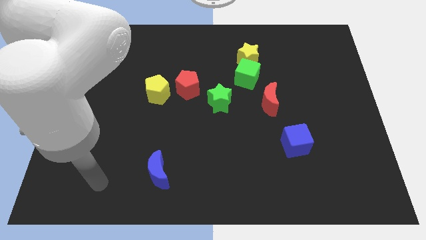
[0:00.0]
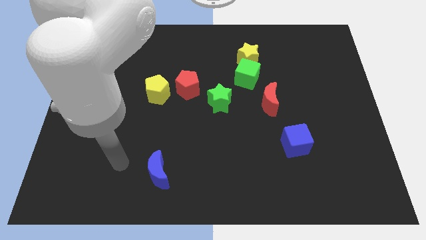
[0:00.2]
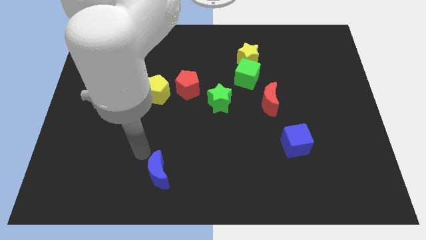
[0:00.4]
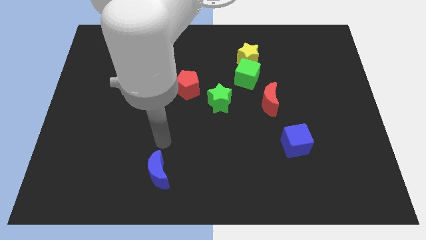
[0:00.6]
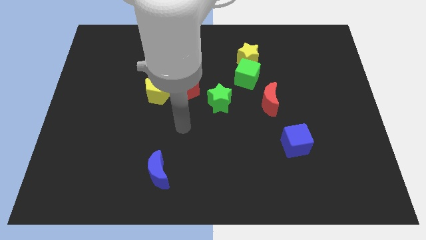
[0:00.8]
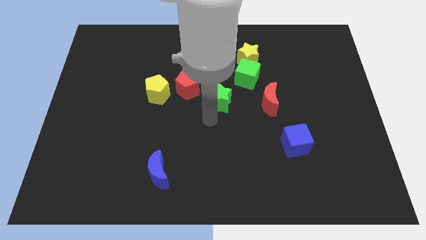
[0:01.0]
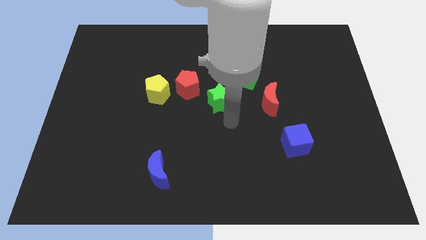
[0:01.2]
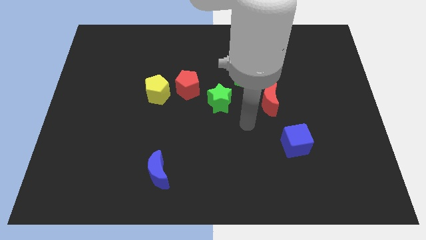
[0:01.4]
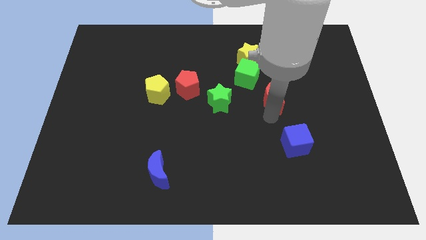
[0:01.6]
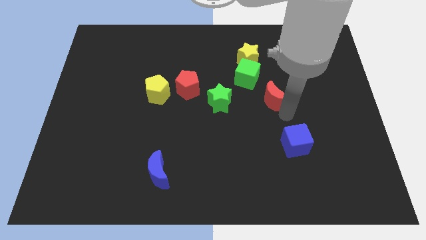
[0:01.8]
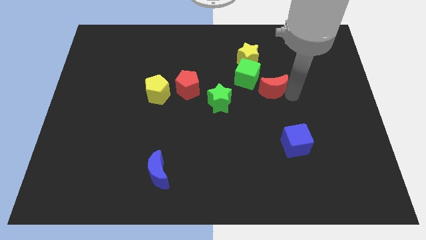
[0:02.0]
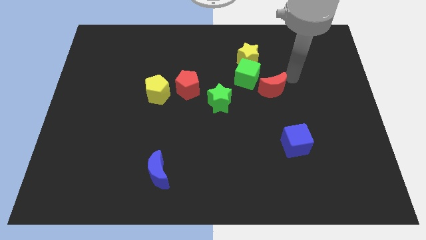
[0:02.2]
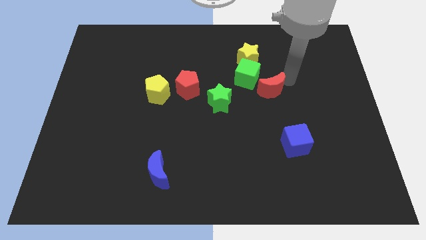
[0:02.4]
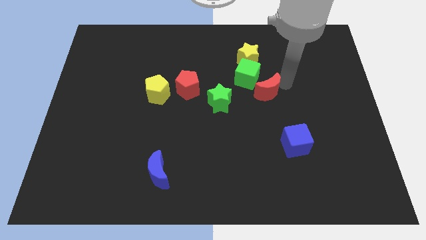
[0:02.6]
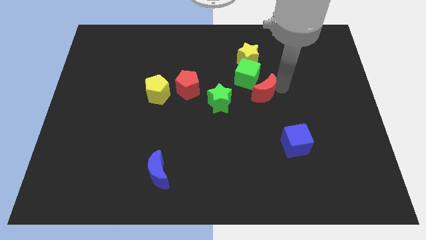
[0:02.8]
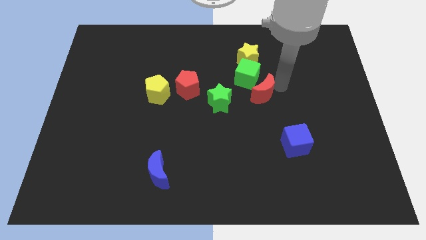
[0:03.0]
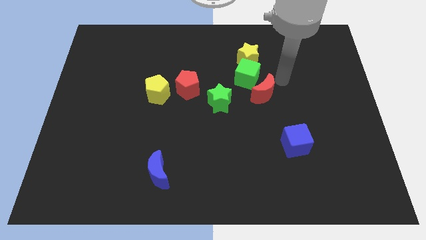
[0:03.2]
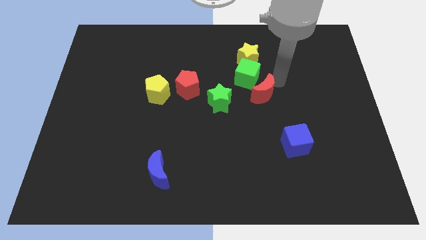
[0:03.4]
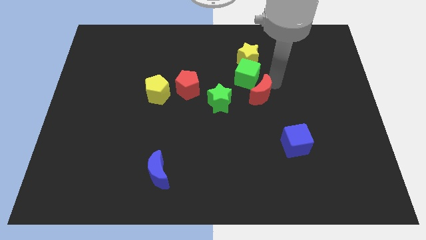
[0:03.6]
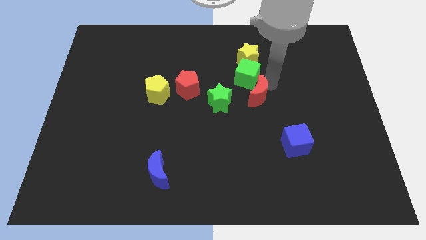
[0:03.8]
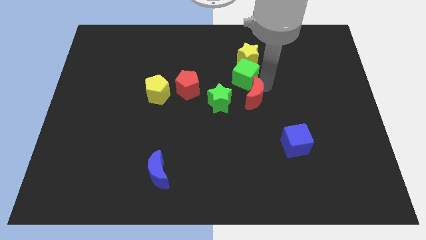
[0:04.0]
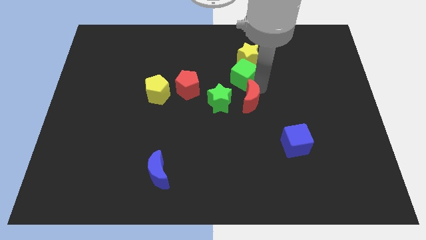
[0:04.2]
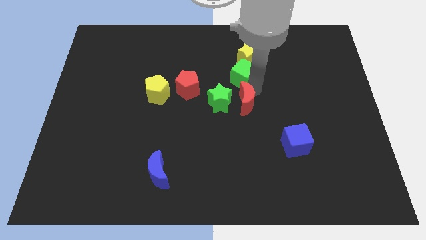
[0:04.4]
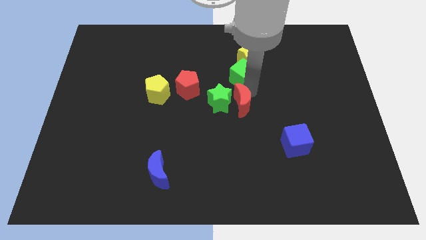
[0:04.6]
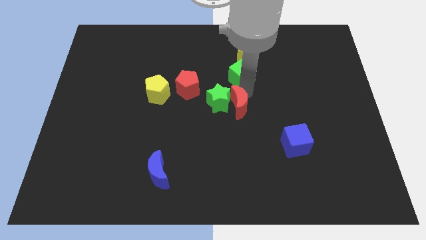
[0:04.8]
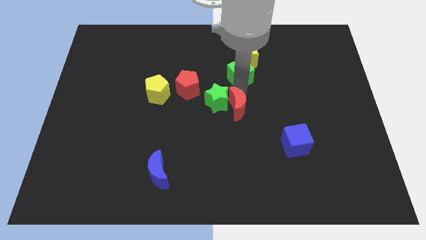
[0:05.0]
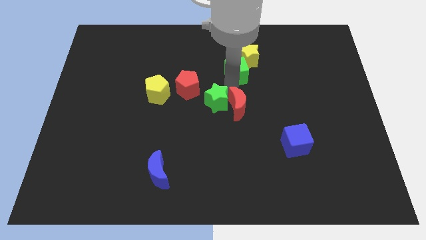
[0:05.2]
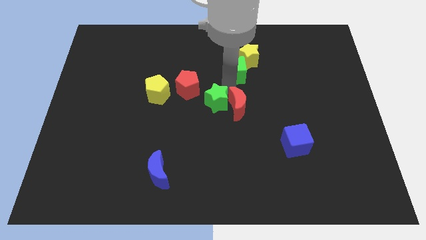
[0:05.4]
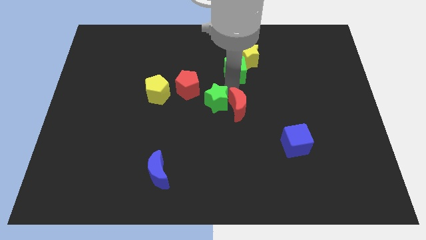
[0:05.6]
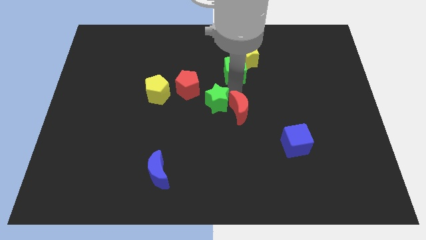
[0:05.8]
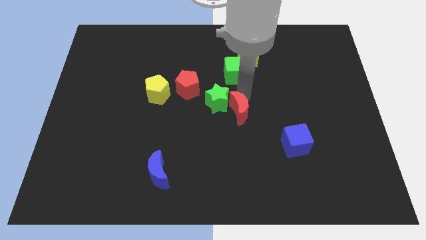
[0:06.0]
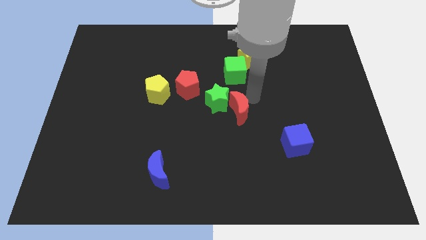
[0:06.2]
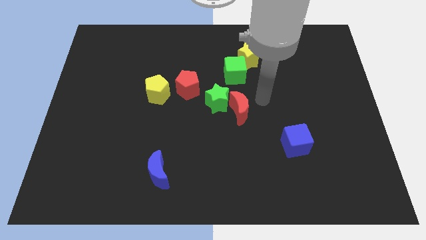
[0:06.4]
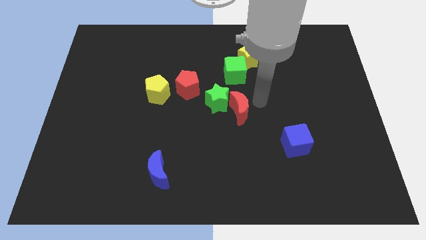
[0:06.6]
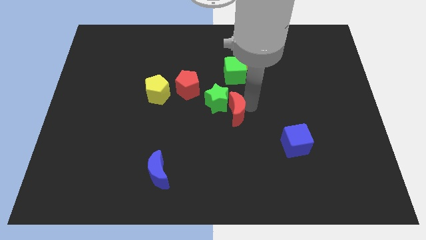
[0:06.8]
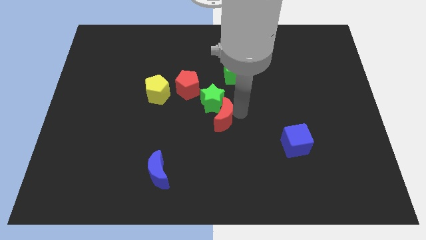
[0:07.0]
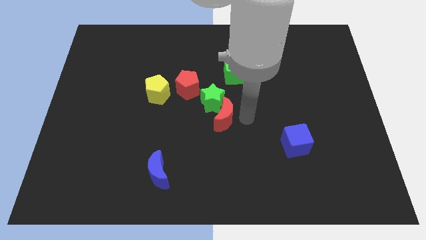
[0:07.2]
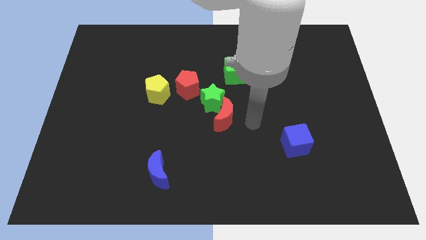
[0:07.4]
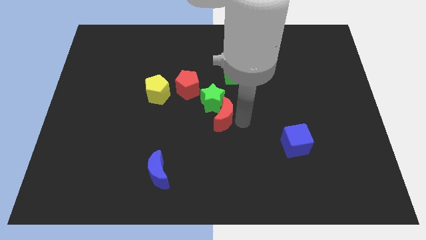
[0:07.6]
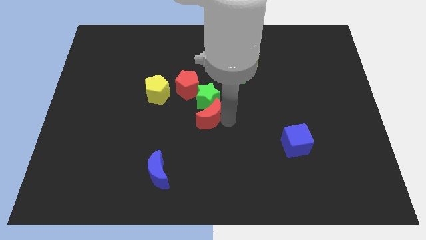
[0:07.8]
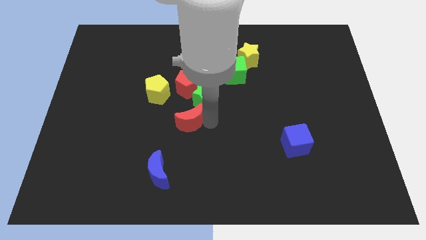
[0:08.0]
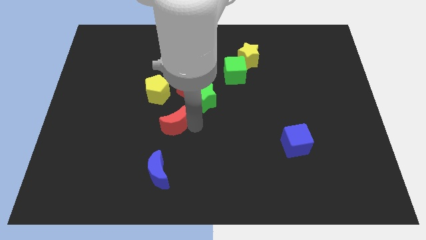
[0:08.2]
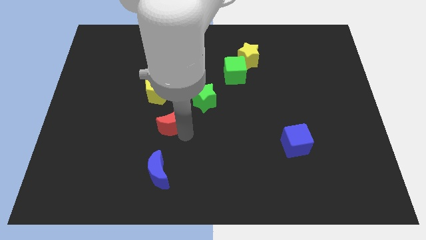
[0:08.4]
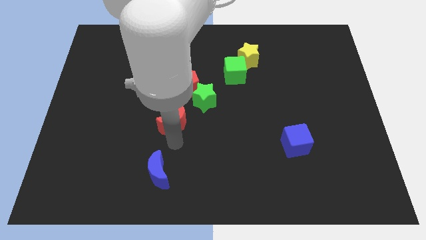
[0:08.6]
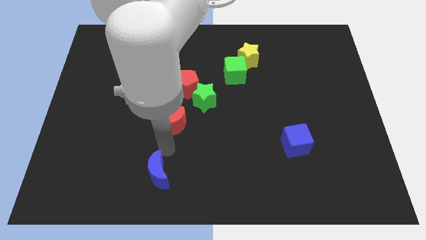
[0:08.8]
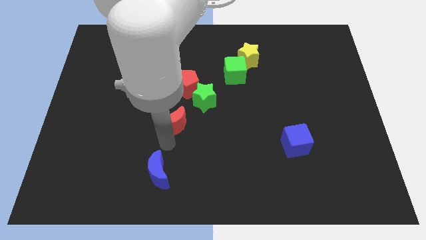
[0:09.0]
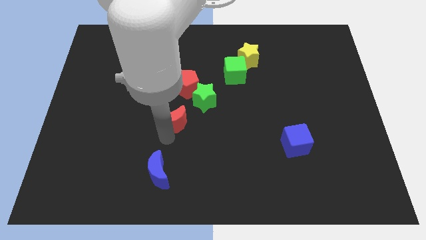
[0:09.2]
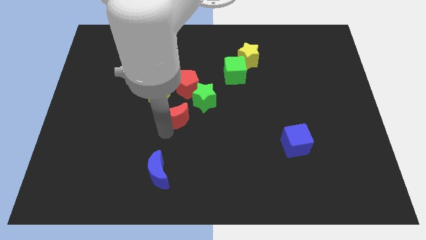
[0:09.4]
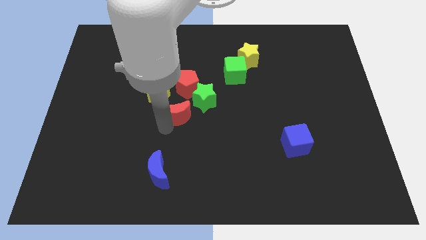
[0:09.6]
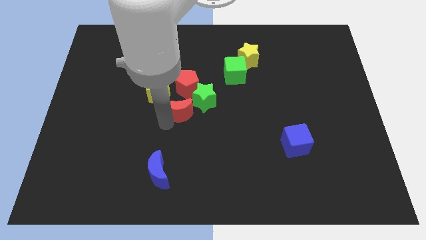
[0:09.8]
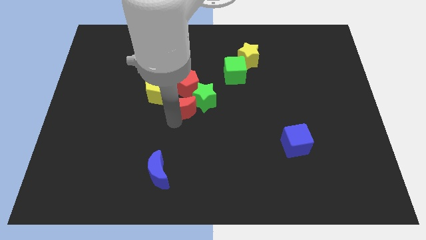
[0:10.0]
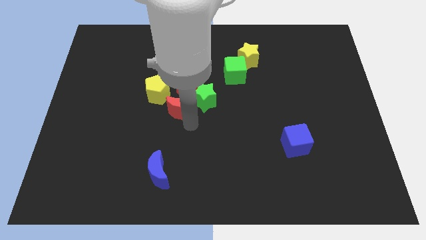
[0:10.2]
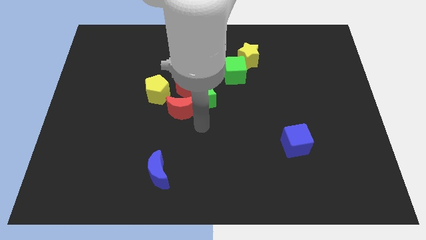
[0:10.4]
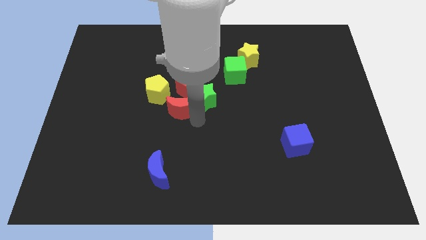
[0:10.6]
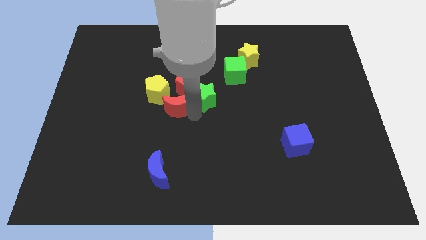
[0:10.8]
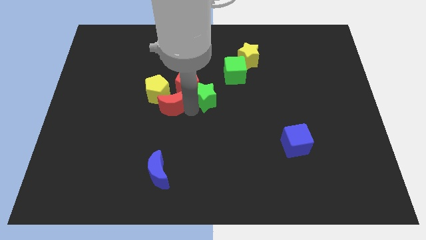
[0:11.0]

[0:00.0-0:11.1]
put the red moon to the yellow pentagon

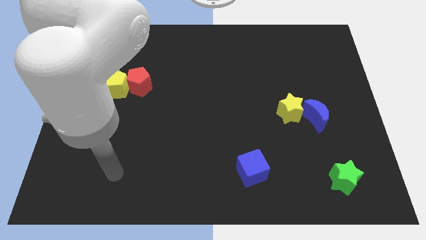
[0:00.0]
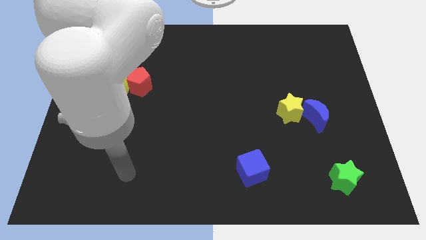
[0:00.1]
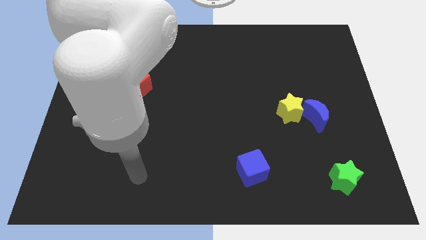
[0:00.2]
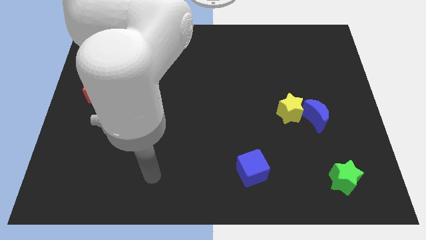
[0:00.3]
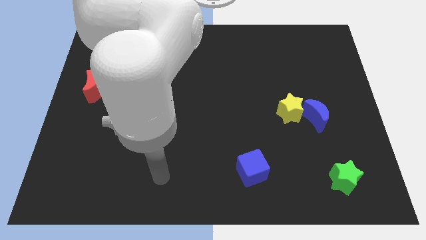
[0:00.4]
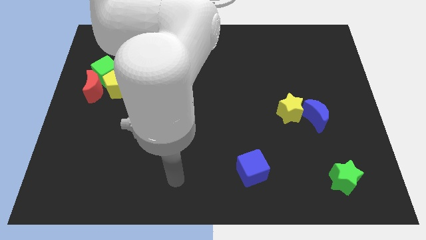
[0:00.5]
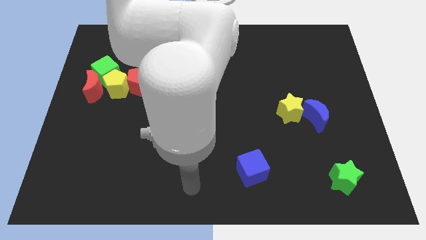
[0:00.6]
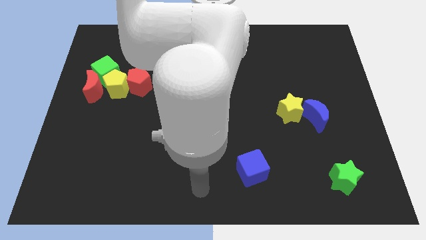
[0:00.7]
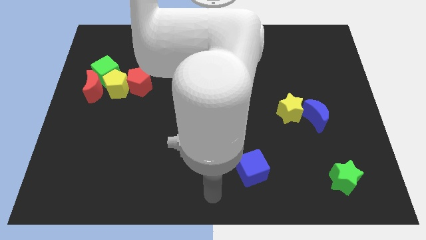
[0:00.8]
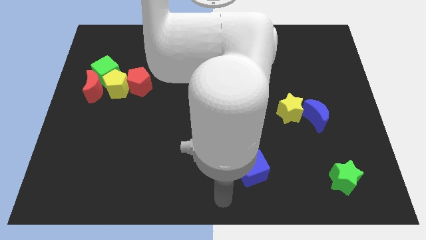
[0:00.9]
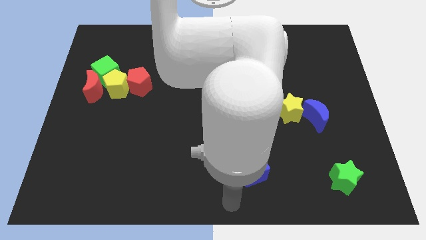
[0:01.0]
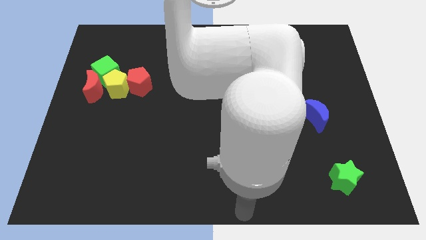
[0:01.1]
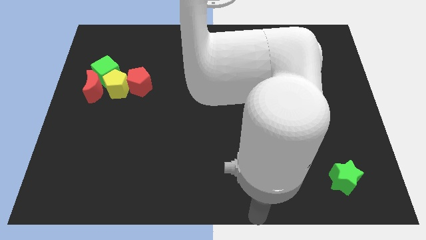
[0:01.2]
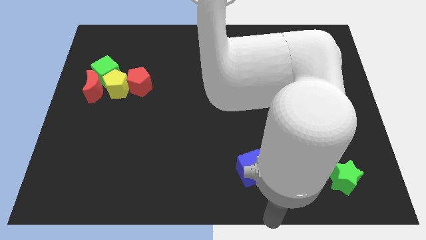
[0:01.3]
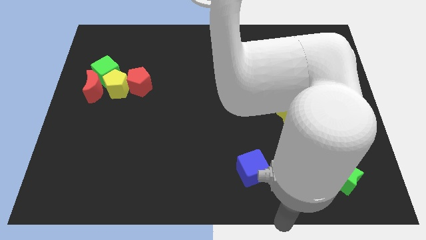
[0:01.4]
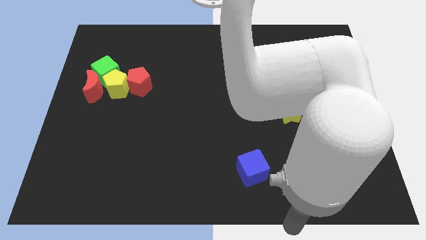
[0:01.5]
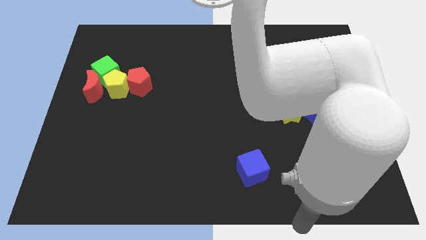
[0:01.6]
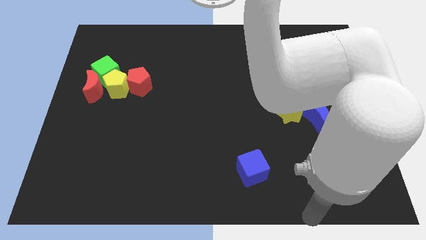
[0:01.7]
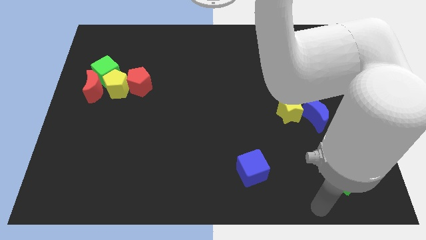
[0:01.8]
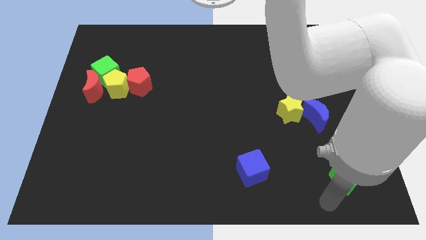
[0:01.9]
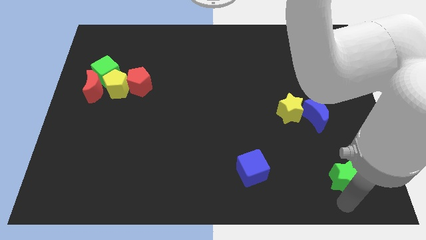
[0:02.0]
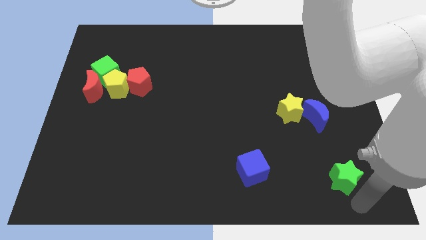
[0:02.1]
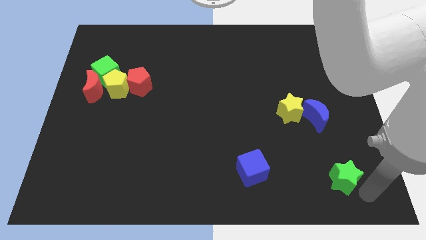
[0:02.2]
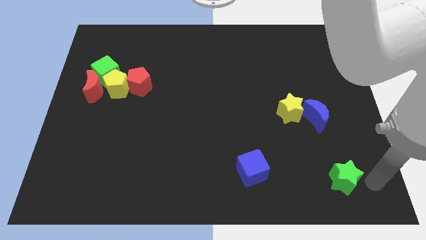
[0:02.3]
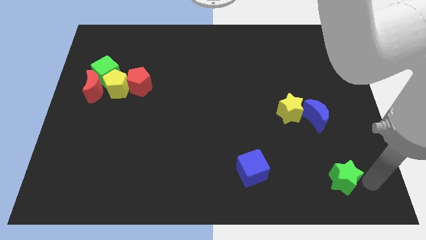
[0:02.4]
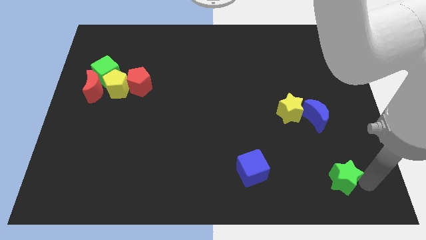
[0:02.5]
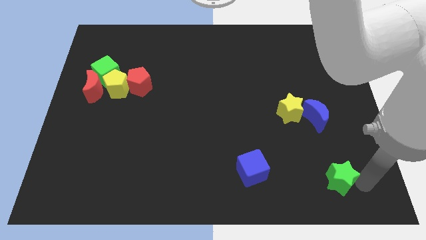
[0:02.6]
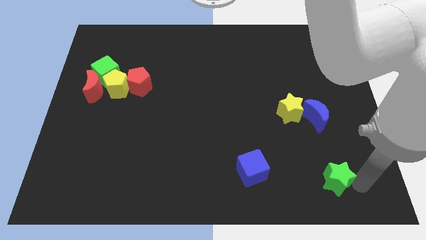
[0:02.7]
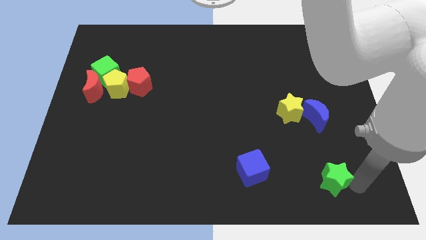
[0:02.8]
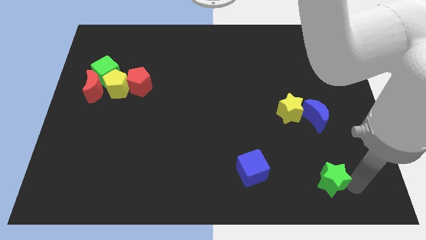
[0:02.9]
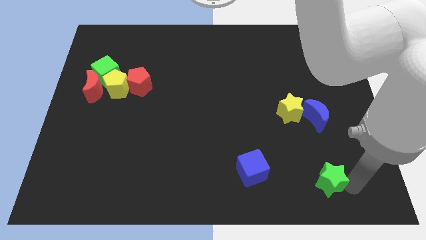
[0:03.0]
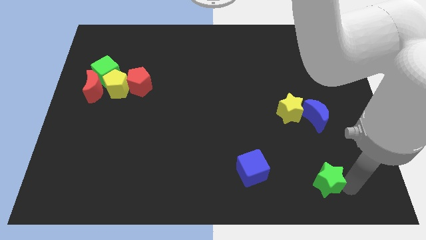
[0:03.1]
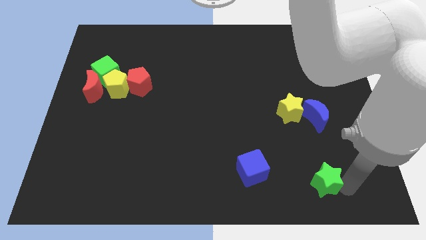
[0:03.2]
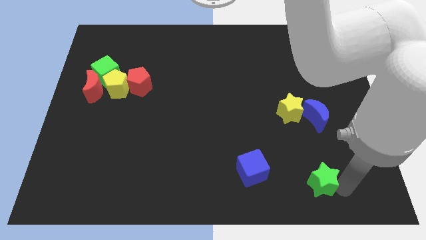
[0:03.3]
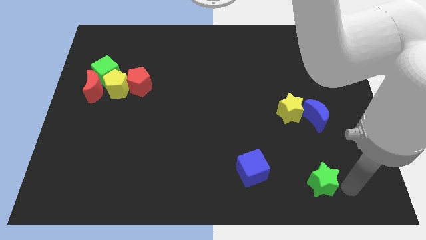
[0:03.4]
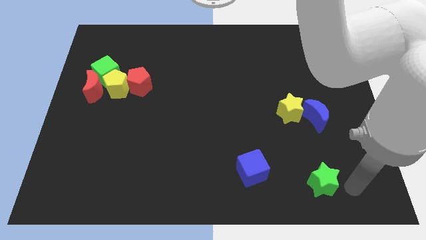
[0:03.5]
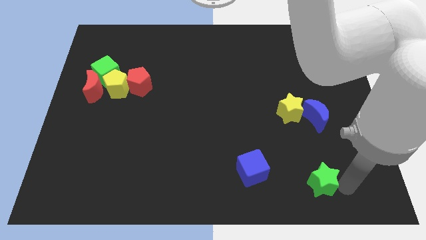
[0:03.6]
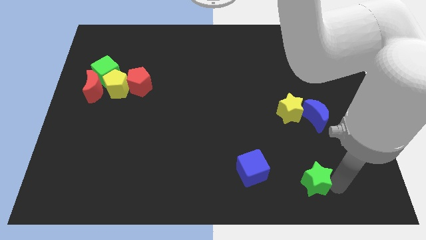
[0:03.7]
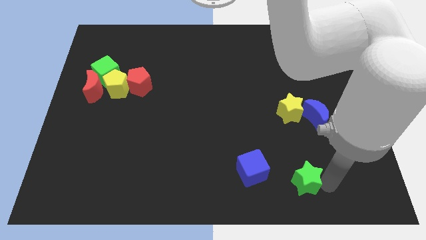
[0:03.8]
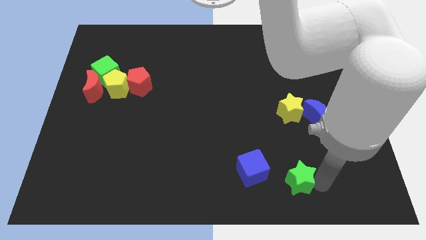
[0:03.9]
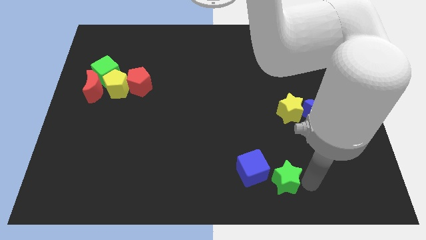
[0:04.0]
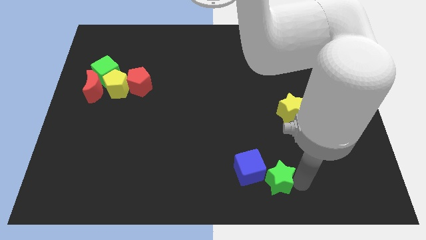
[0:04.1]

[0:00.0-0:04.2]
slide the green star close to the blue cube
